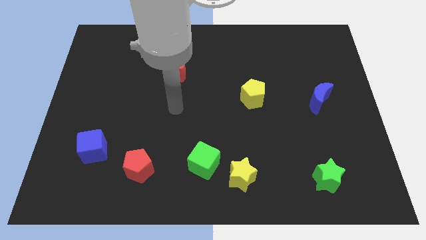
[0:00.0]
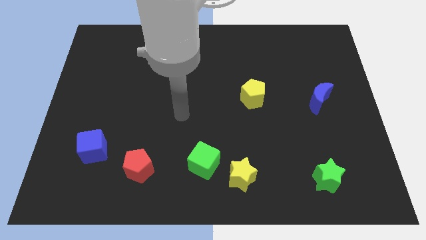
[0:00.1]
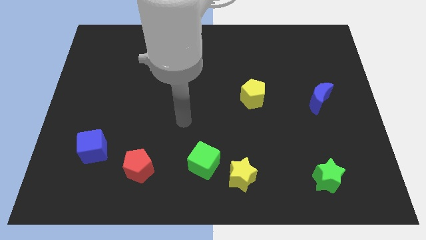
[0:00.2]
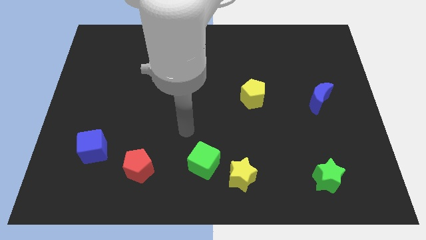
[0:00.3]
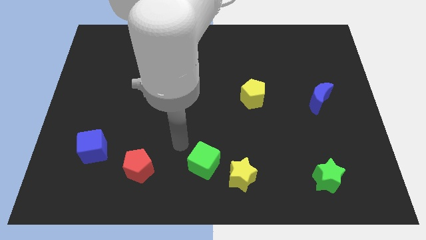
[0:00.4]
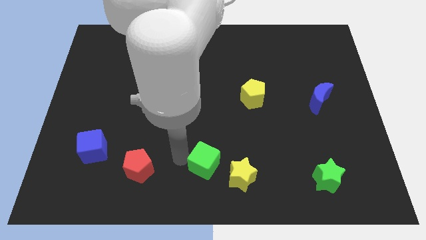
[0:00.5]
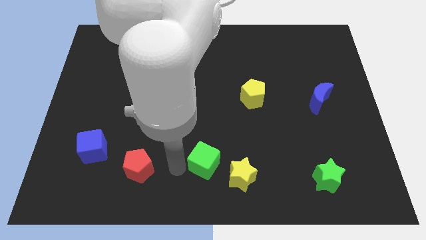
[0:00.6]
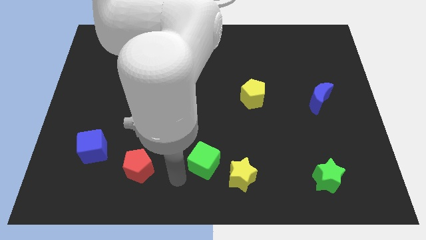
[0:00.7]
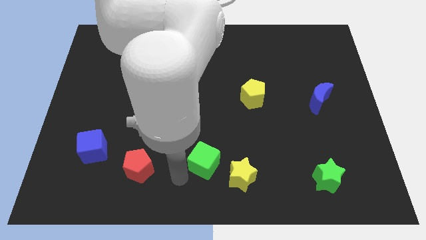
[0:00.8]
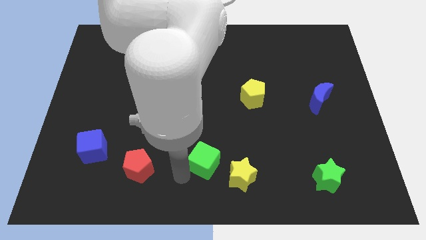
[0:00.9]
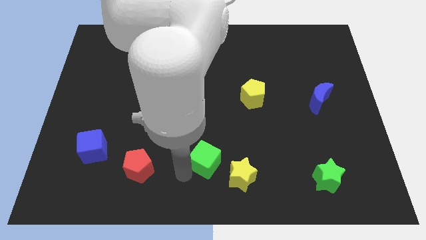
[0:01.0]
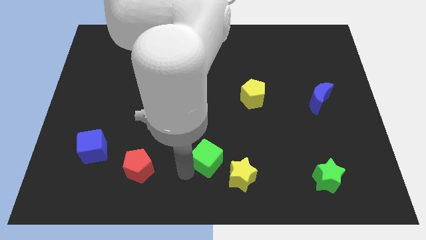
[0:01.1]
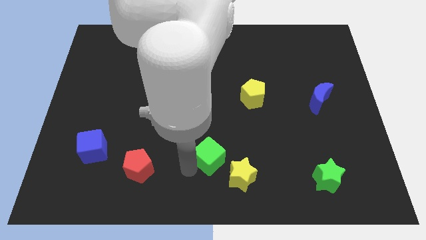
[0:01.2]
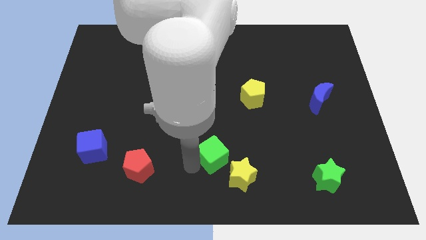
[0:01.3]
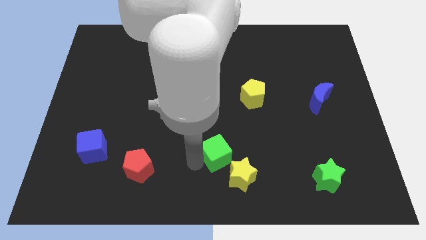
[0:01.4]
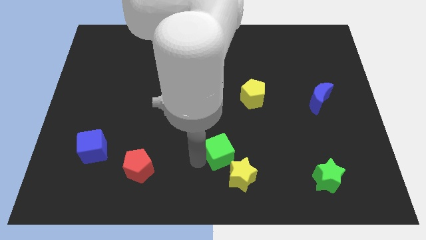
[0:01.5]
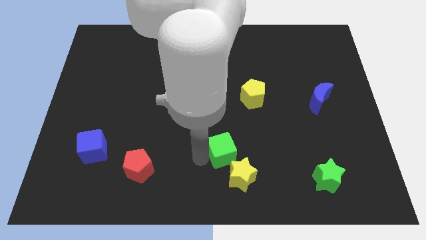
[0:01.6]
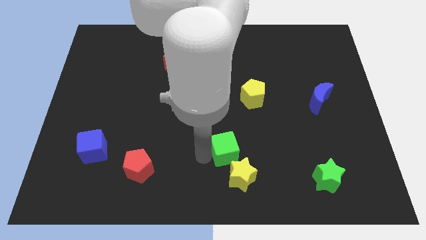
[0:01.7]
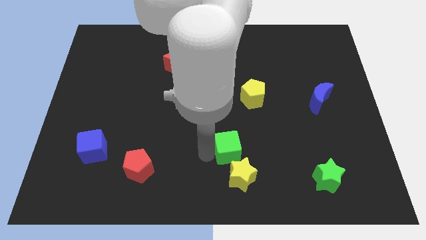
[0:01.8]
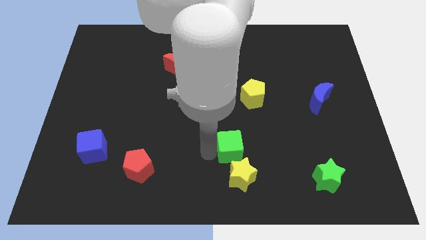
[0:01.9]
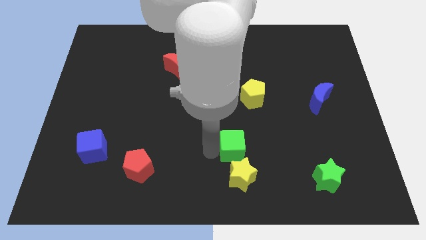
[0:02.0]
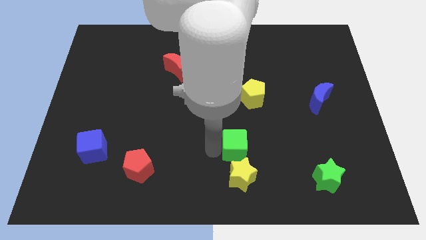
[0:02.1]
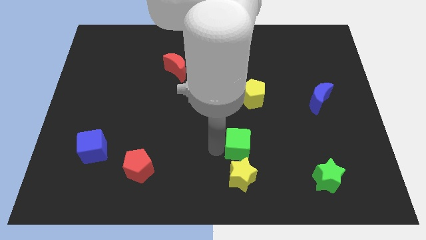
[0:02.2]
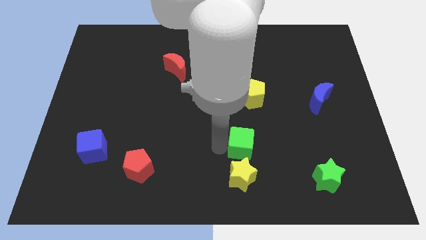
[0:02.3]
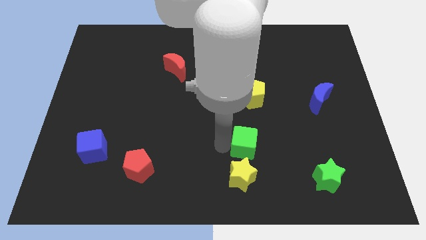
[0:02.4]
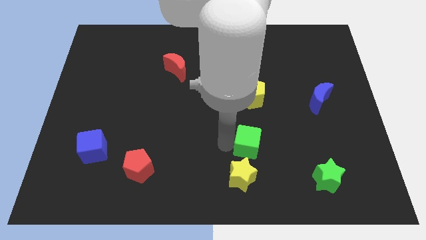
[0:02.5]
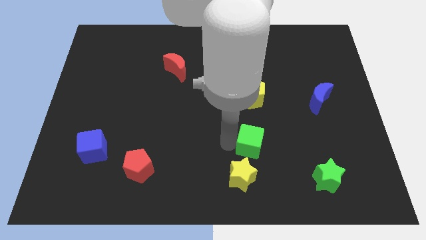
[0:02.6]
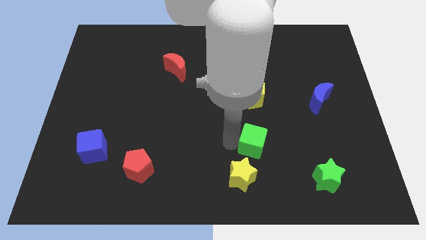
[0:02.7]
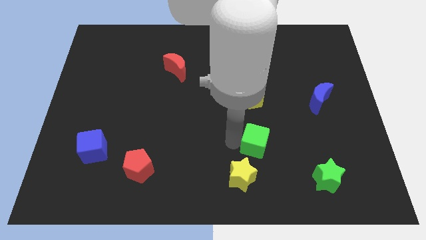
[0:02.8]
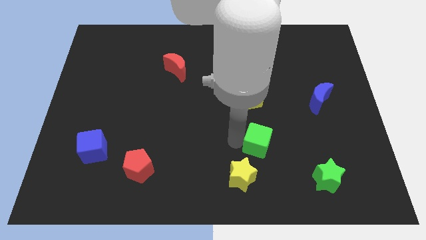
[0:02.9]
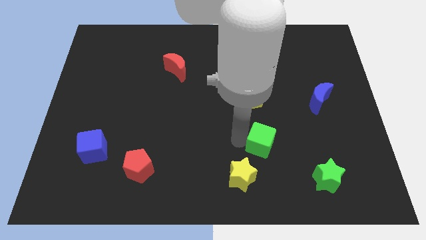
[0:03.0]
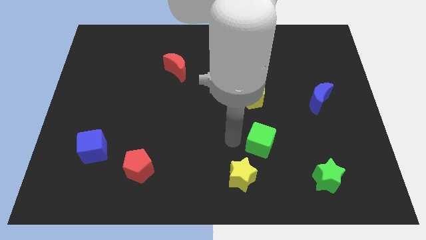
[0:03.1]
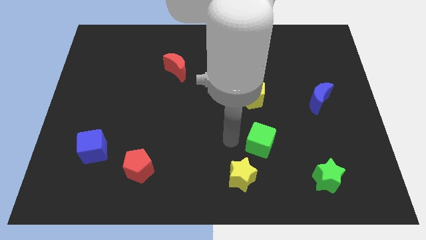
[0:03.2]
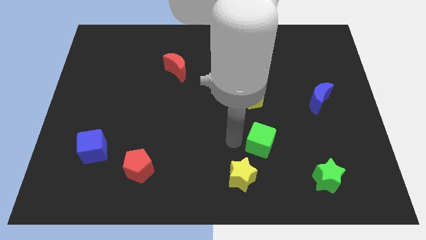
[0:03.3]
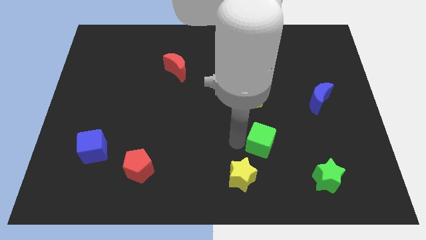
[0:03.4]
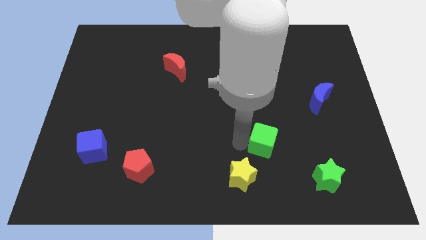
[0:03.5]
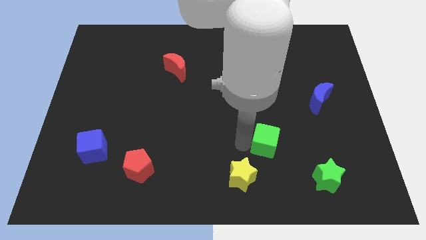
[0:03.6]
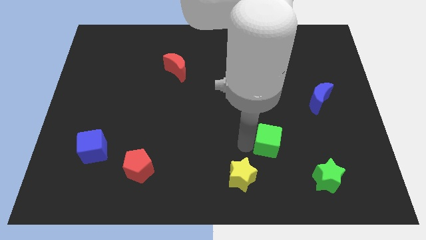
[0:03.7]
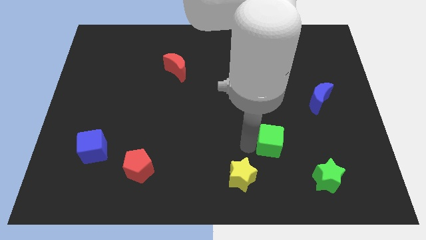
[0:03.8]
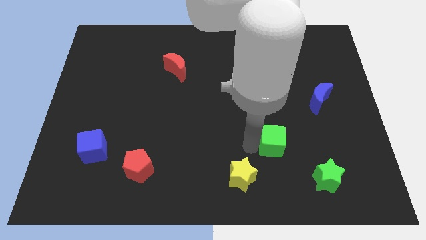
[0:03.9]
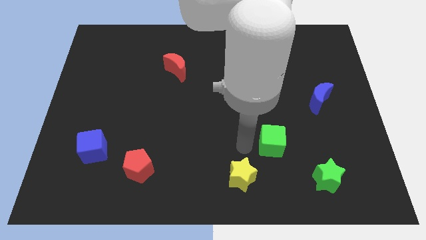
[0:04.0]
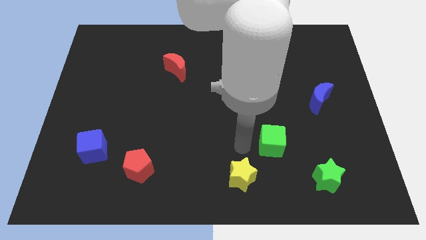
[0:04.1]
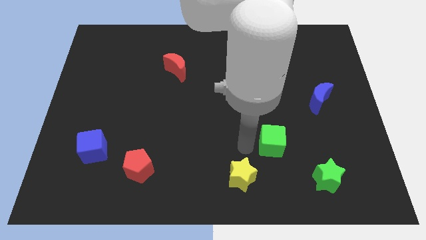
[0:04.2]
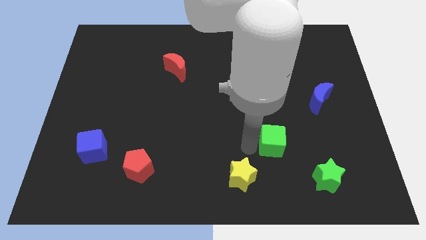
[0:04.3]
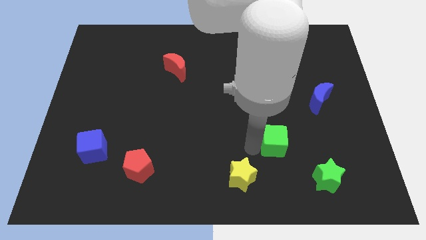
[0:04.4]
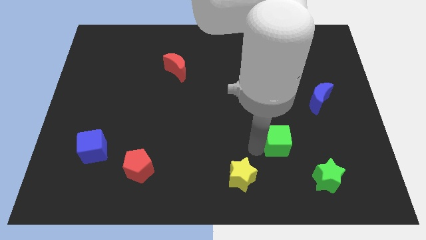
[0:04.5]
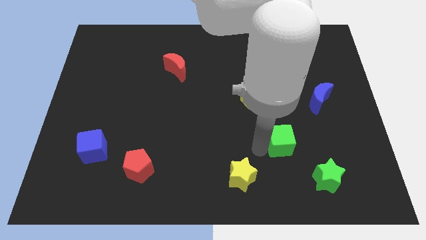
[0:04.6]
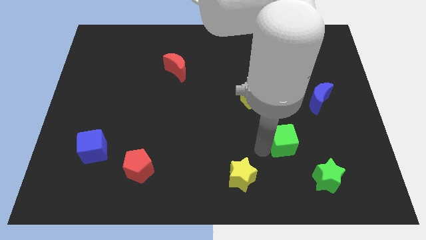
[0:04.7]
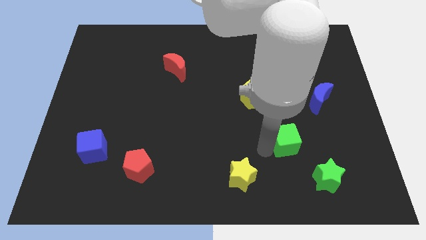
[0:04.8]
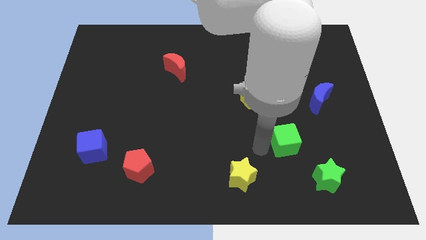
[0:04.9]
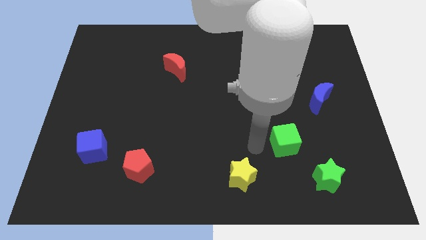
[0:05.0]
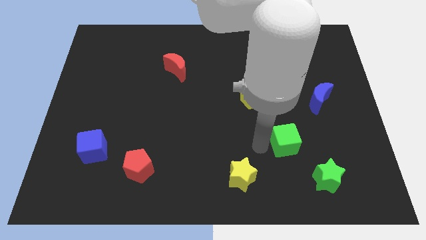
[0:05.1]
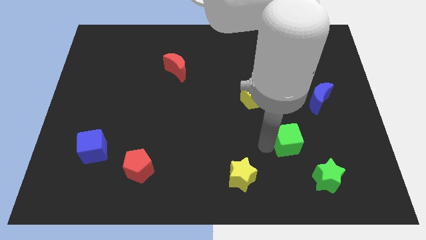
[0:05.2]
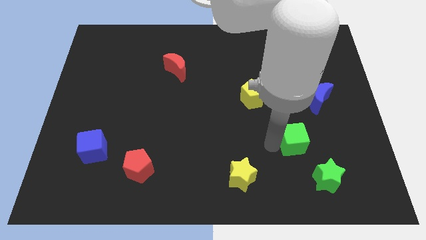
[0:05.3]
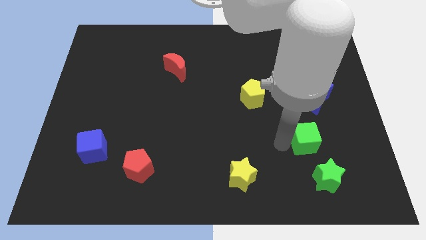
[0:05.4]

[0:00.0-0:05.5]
move the green cube below the blue moon

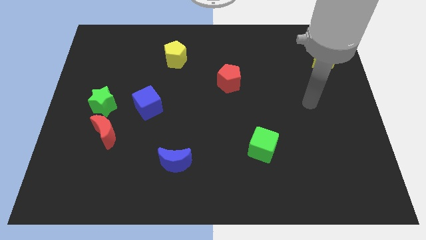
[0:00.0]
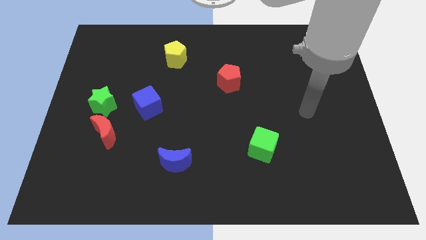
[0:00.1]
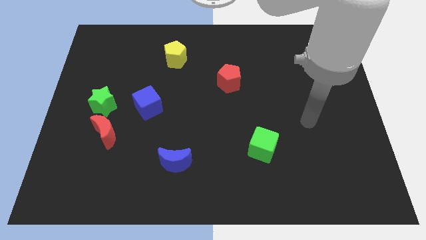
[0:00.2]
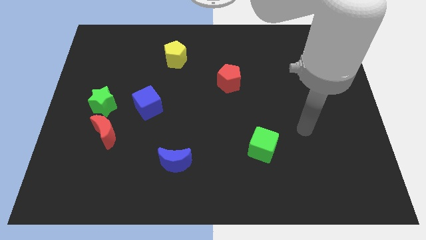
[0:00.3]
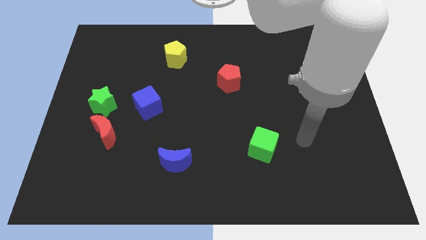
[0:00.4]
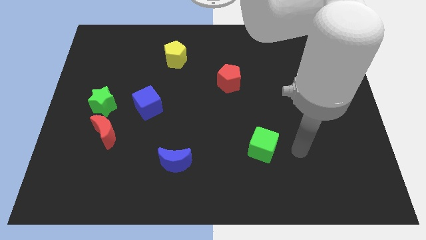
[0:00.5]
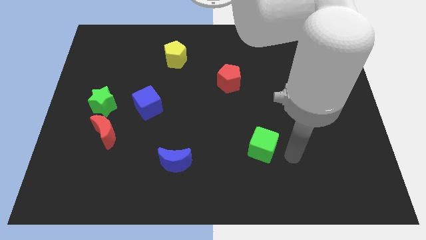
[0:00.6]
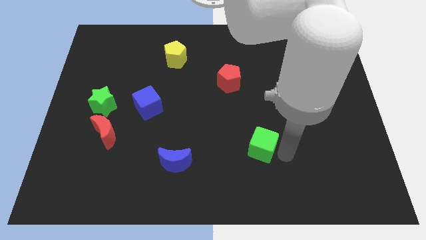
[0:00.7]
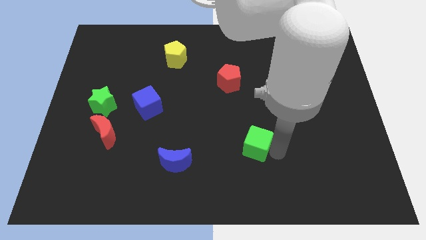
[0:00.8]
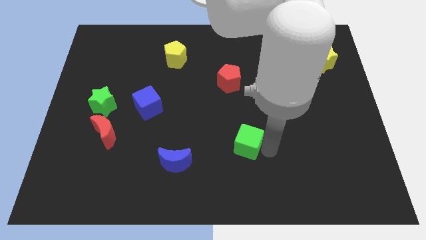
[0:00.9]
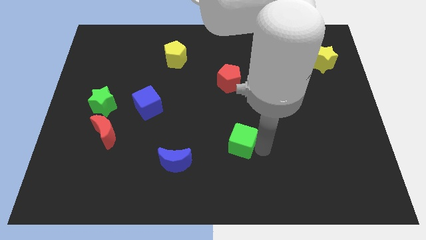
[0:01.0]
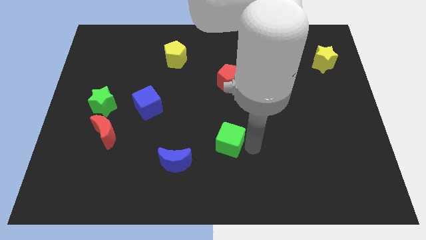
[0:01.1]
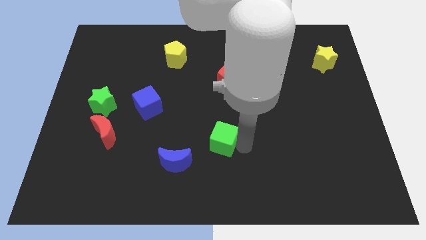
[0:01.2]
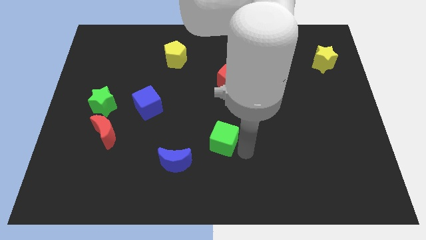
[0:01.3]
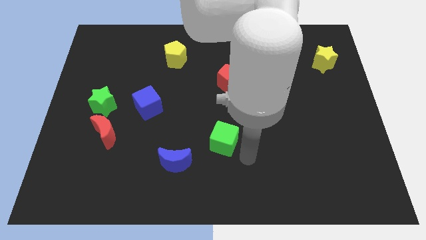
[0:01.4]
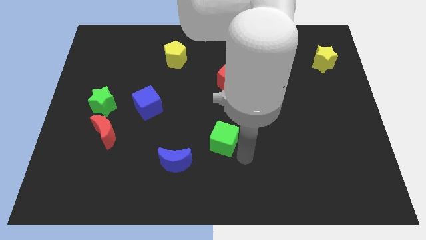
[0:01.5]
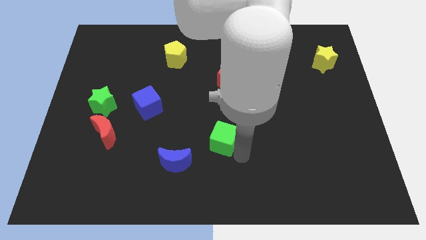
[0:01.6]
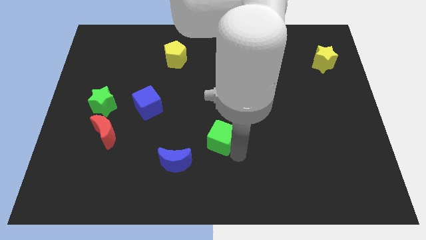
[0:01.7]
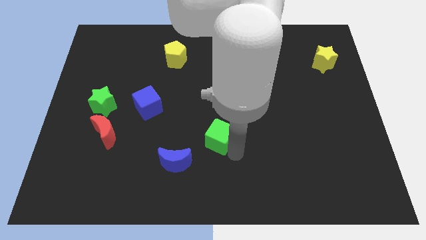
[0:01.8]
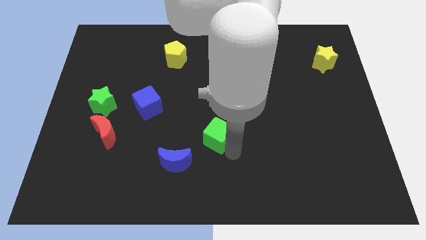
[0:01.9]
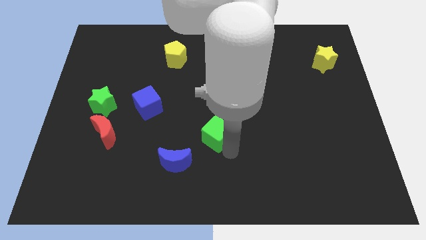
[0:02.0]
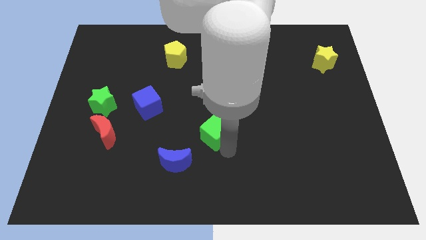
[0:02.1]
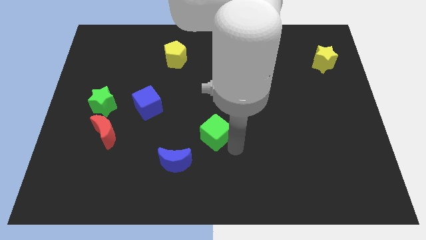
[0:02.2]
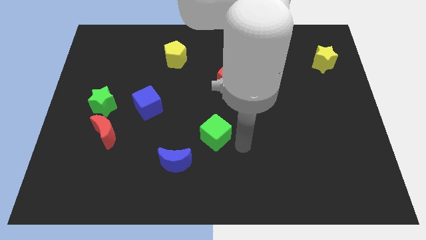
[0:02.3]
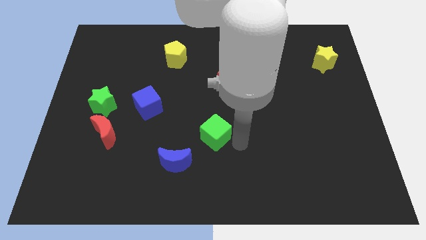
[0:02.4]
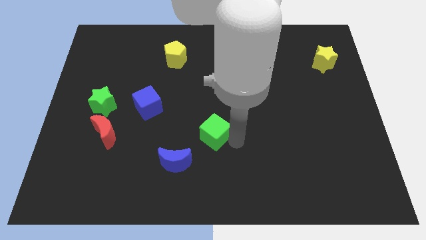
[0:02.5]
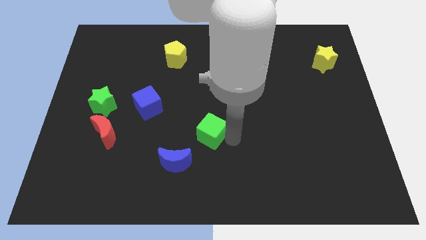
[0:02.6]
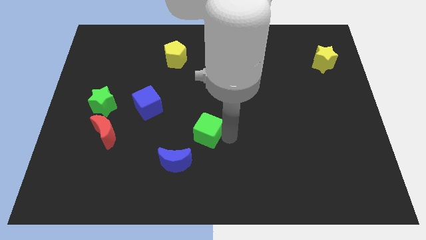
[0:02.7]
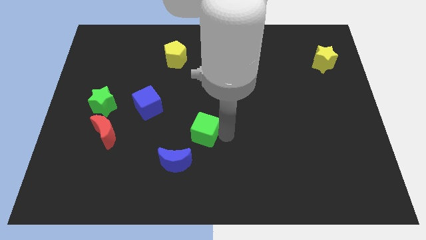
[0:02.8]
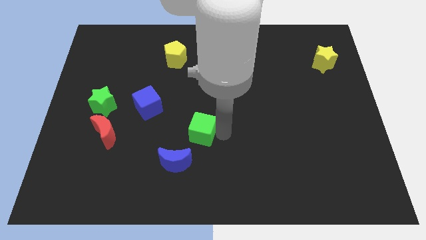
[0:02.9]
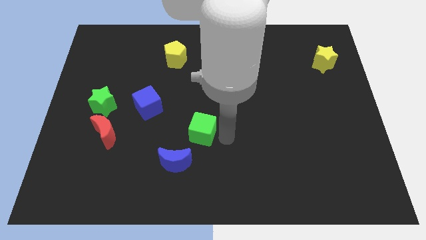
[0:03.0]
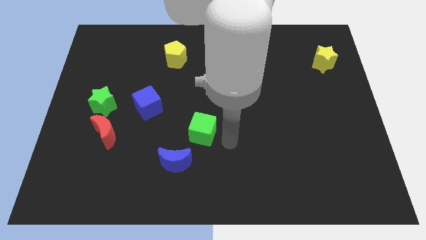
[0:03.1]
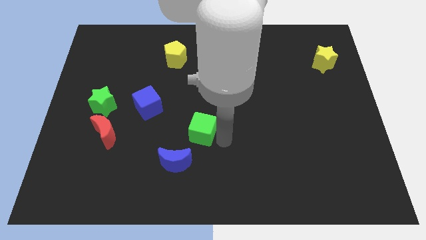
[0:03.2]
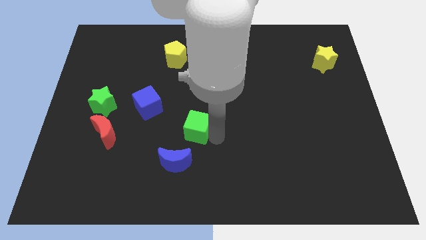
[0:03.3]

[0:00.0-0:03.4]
move the green cube to the top side of the blue moon
